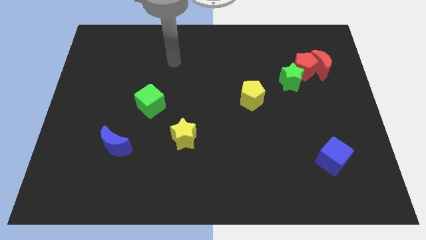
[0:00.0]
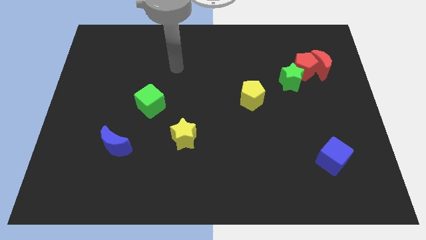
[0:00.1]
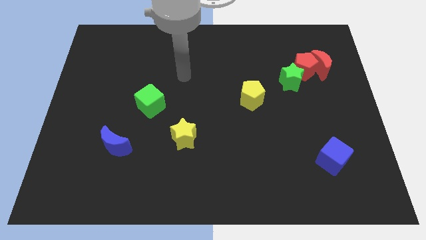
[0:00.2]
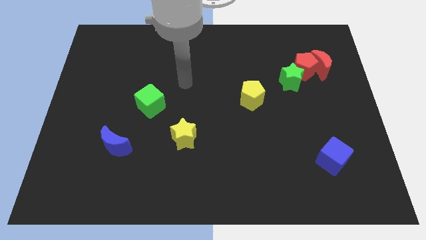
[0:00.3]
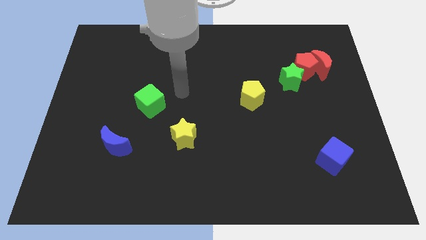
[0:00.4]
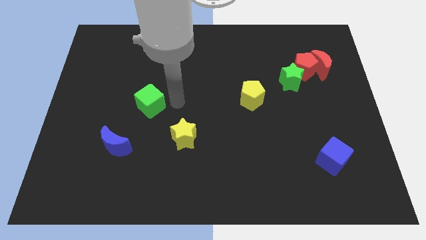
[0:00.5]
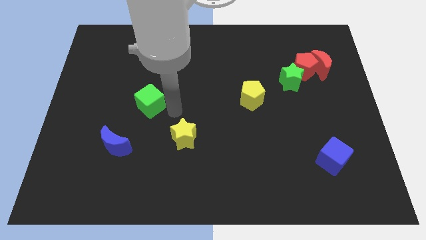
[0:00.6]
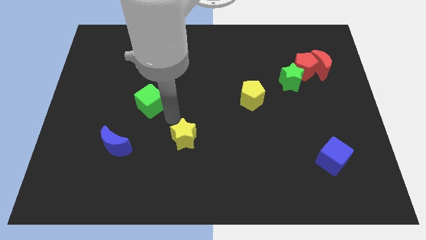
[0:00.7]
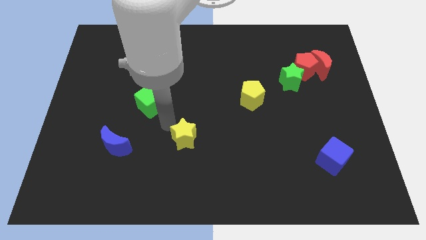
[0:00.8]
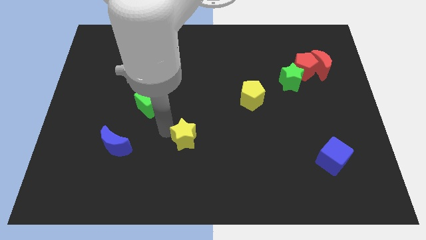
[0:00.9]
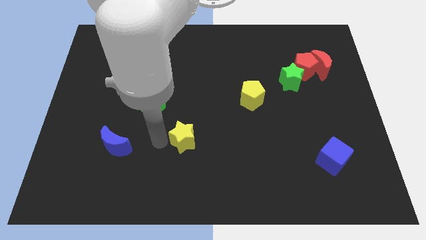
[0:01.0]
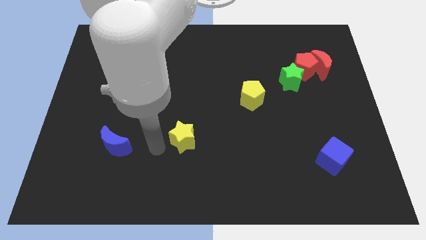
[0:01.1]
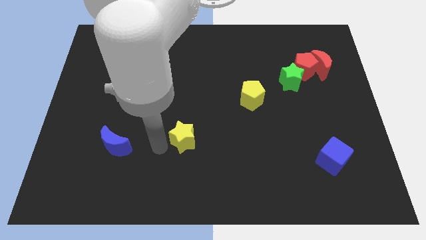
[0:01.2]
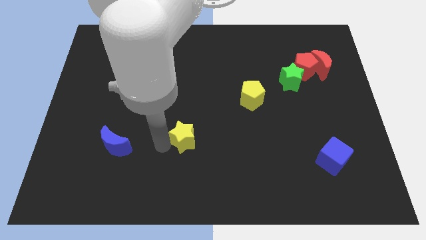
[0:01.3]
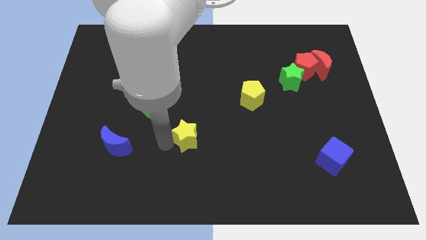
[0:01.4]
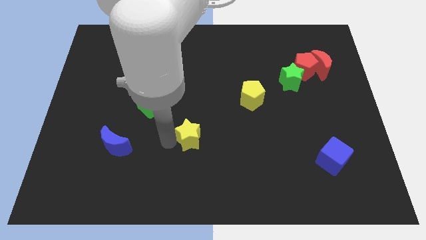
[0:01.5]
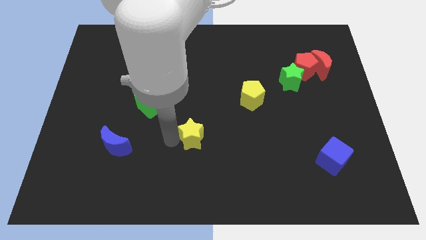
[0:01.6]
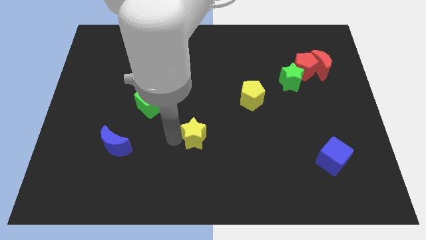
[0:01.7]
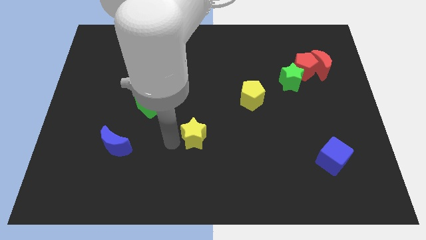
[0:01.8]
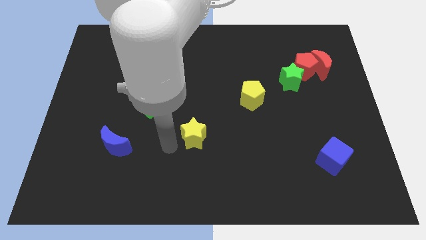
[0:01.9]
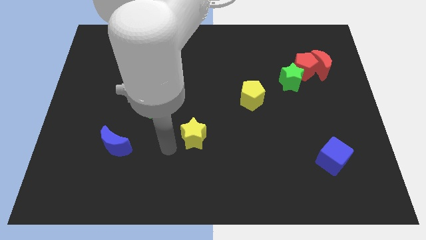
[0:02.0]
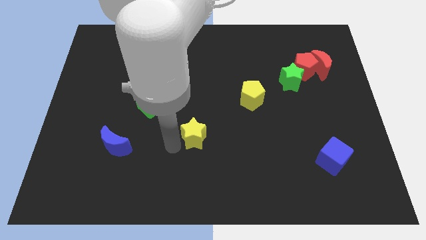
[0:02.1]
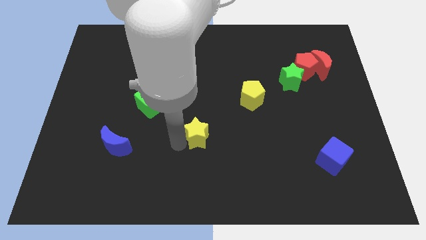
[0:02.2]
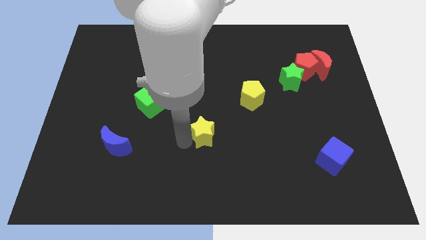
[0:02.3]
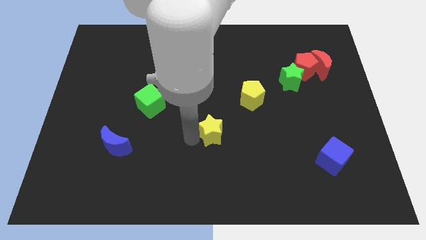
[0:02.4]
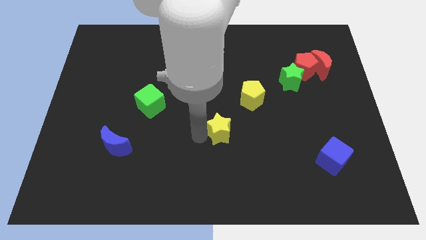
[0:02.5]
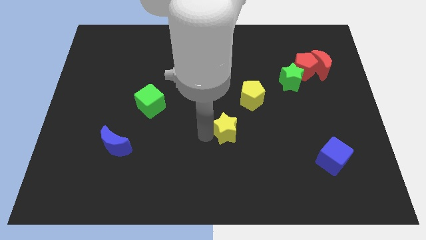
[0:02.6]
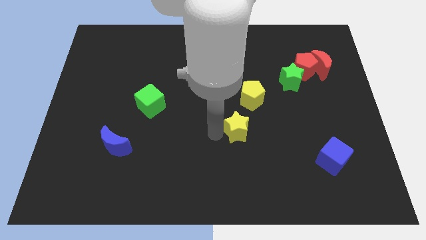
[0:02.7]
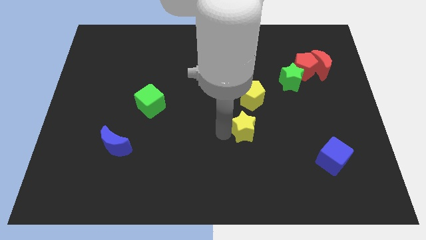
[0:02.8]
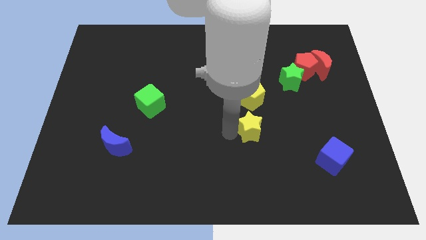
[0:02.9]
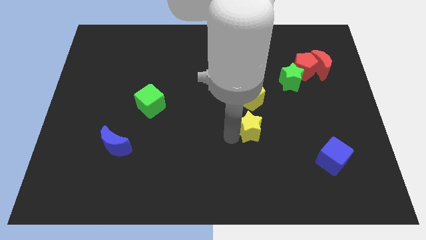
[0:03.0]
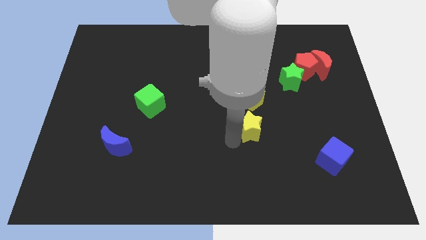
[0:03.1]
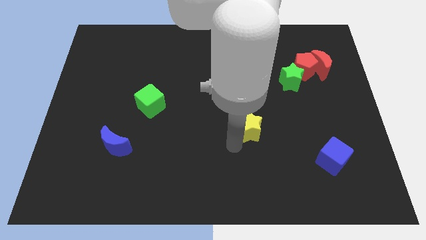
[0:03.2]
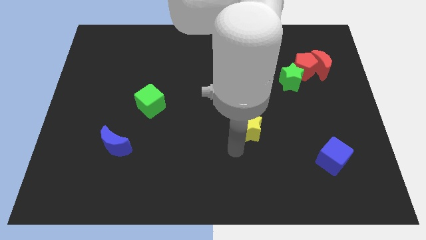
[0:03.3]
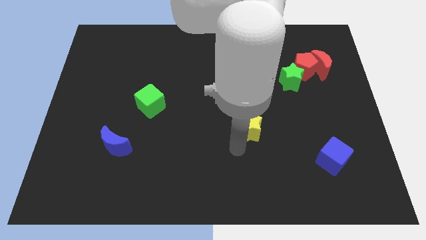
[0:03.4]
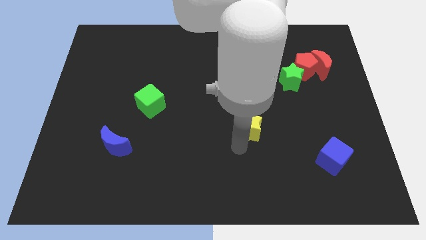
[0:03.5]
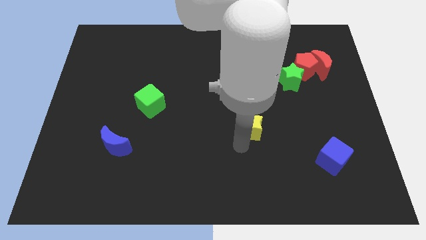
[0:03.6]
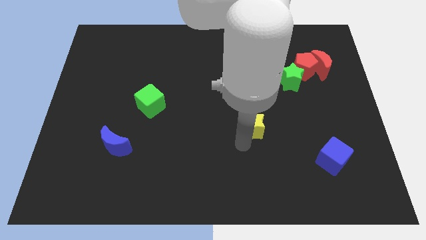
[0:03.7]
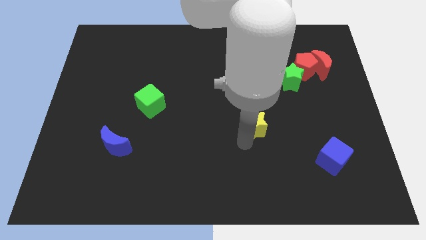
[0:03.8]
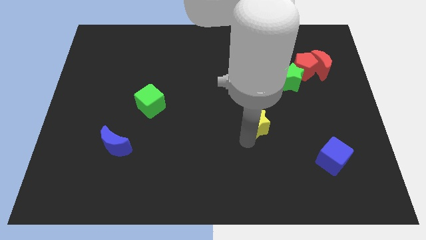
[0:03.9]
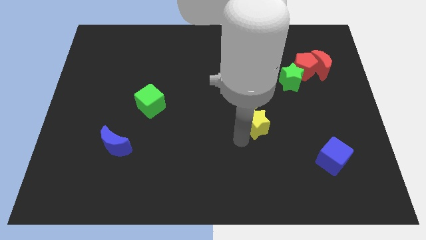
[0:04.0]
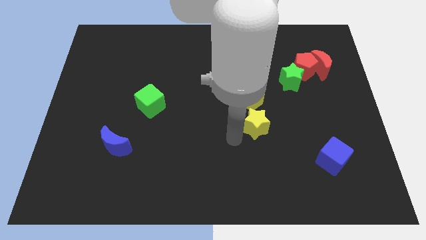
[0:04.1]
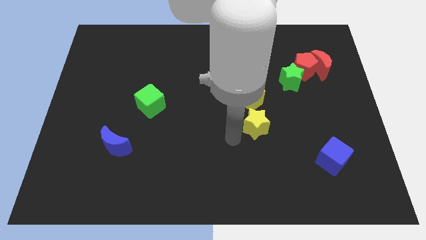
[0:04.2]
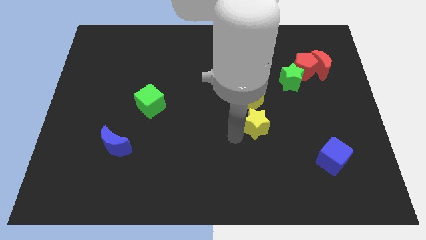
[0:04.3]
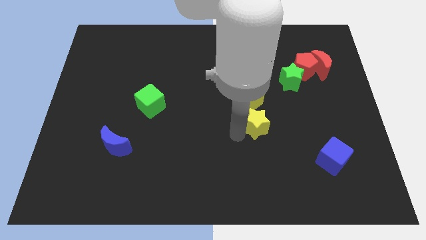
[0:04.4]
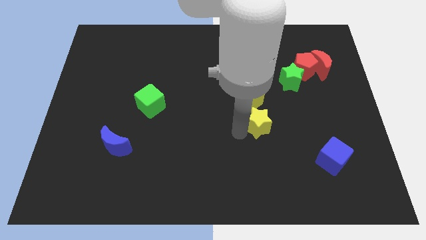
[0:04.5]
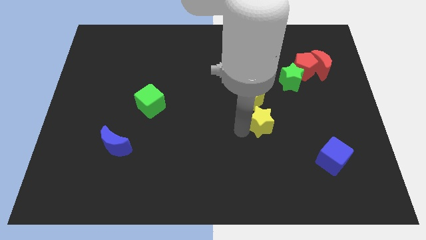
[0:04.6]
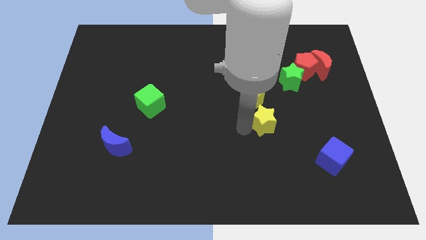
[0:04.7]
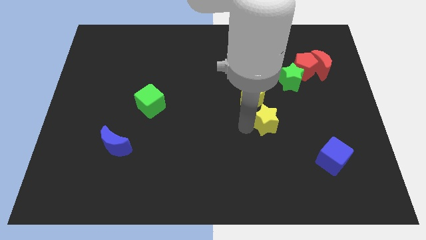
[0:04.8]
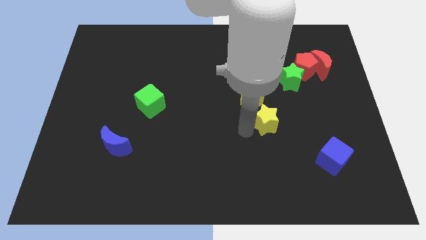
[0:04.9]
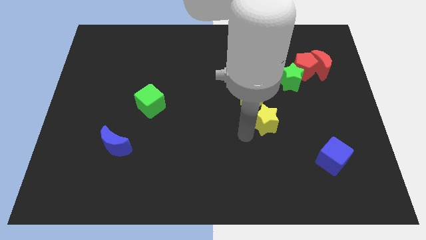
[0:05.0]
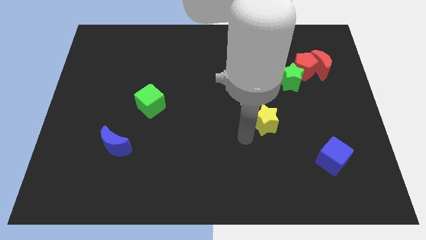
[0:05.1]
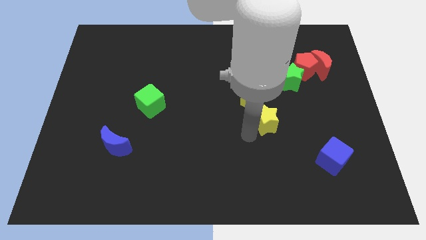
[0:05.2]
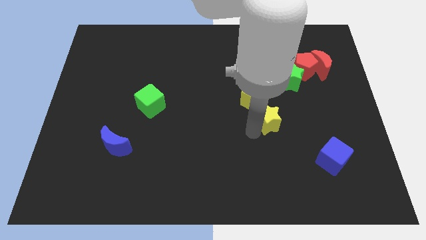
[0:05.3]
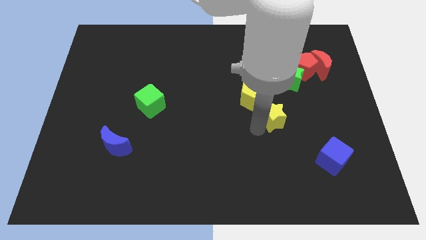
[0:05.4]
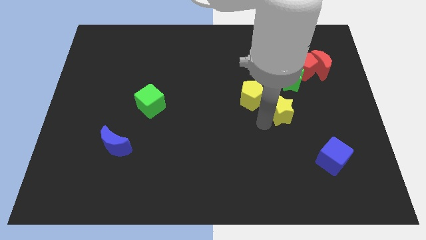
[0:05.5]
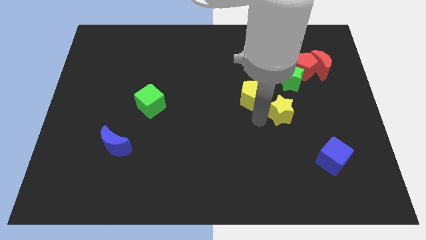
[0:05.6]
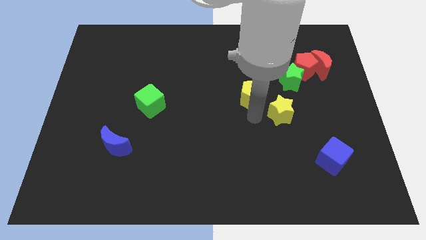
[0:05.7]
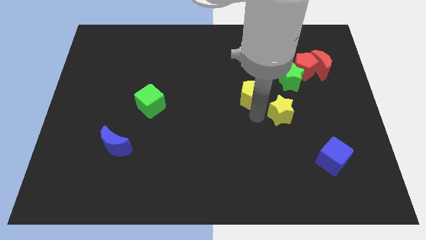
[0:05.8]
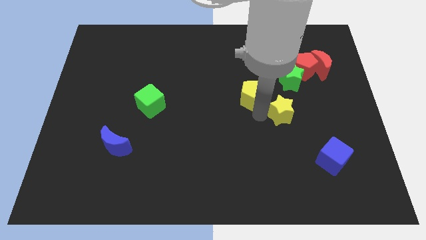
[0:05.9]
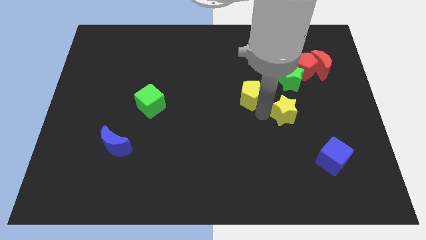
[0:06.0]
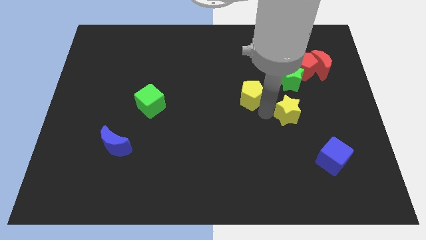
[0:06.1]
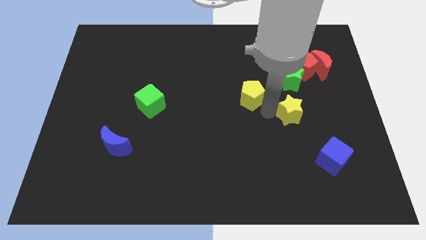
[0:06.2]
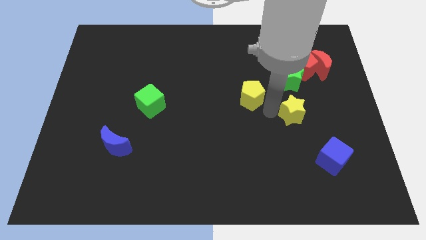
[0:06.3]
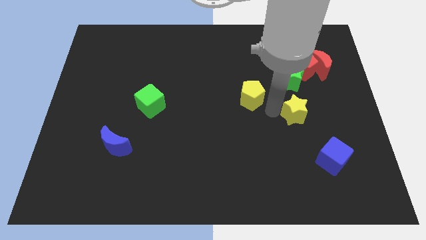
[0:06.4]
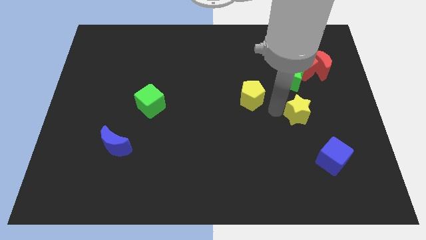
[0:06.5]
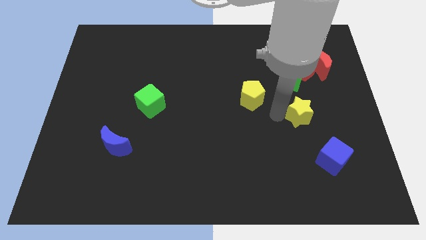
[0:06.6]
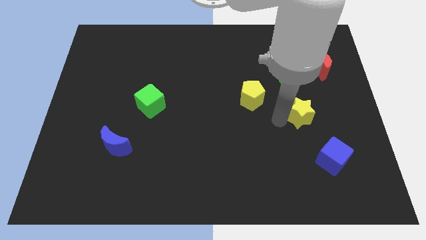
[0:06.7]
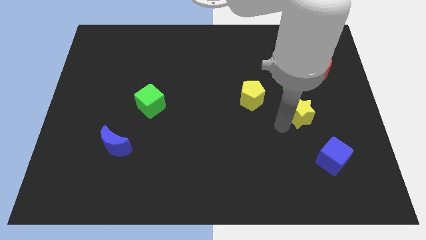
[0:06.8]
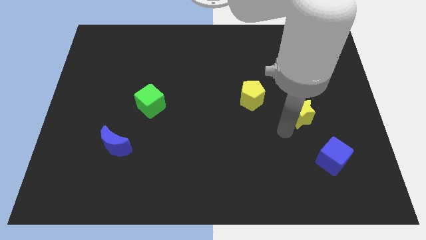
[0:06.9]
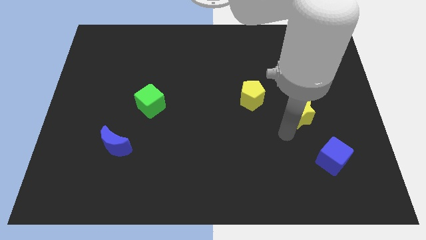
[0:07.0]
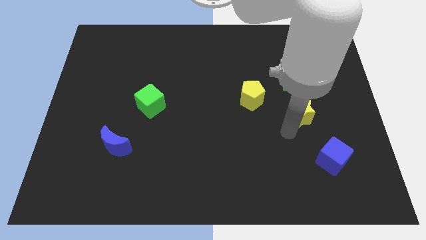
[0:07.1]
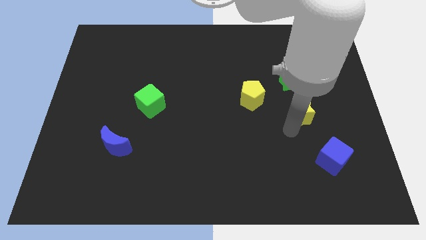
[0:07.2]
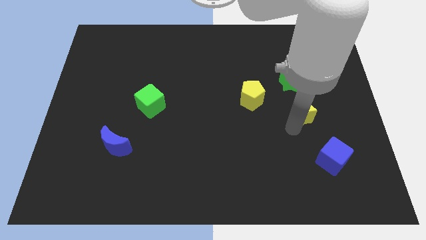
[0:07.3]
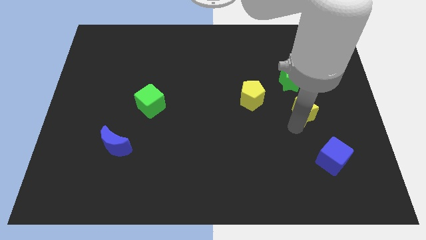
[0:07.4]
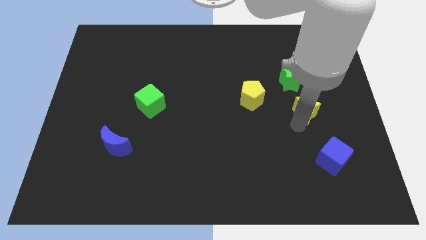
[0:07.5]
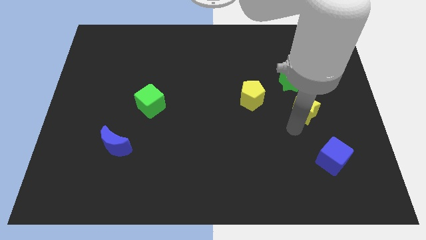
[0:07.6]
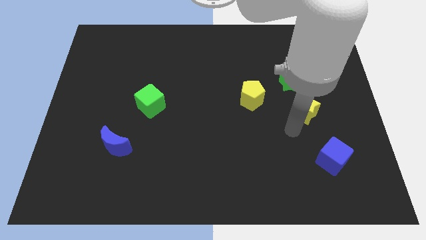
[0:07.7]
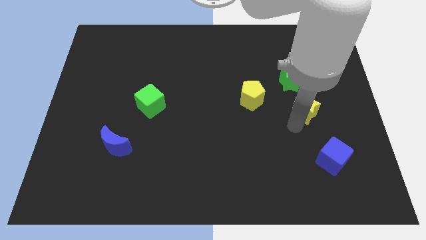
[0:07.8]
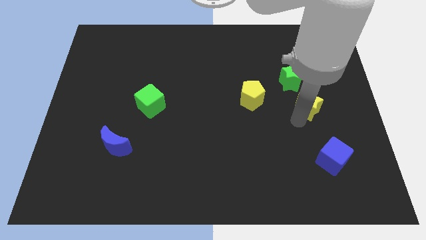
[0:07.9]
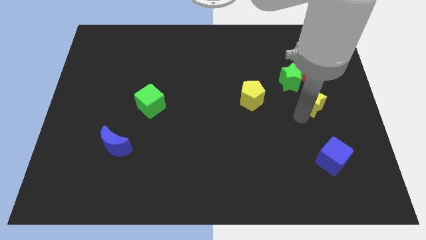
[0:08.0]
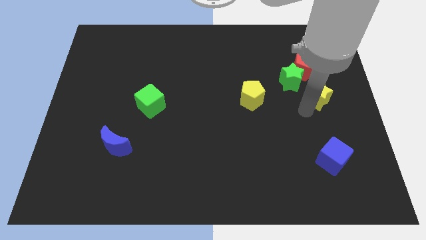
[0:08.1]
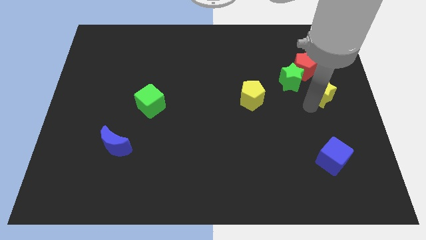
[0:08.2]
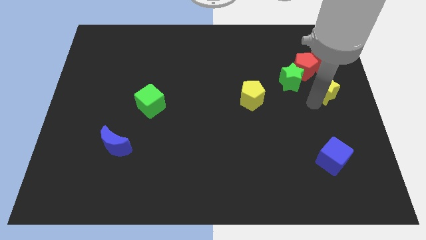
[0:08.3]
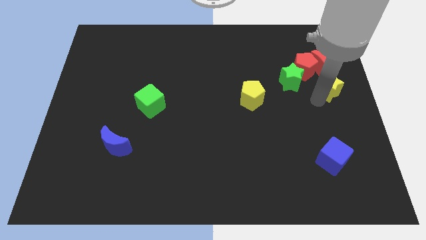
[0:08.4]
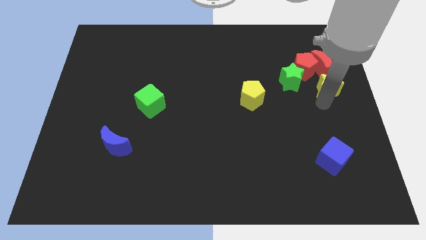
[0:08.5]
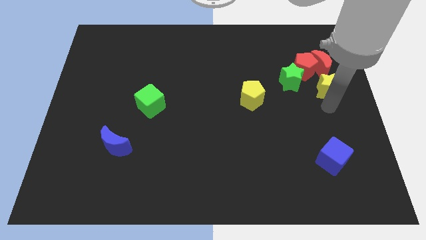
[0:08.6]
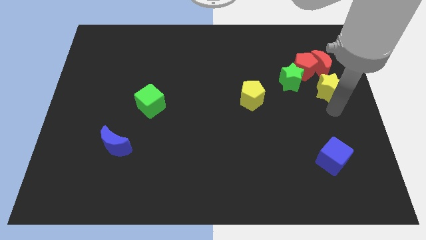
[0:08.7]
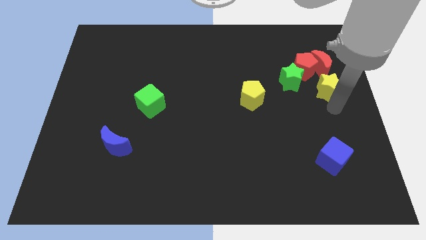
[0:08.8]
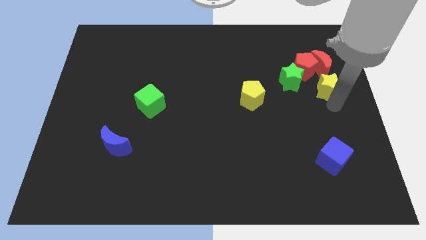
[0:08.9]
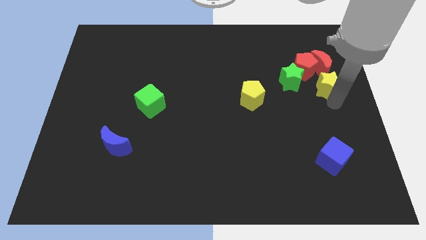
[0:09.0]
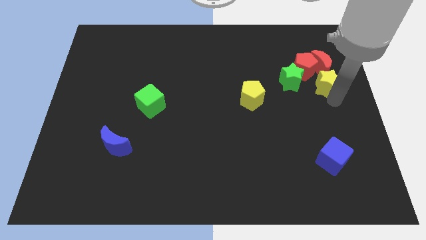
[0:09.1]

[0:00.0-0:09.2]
slide the yellow star towards the red moon
